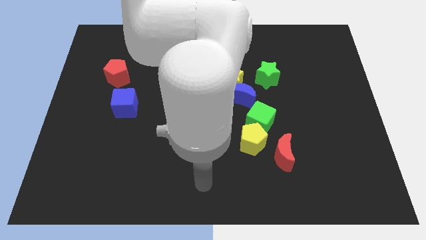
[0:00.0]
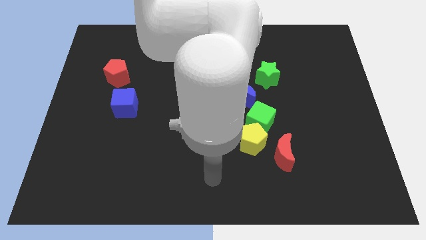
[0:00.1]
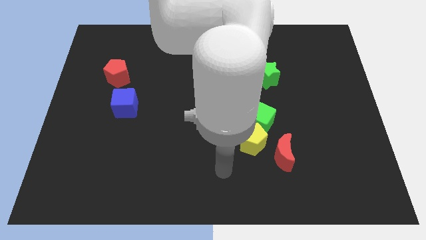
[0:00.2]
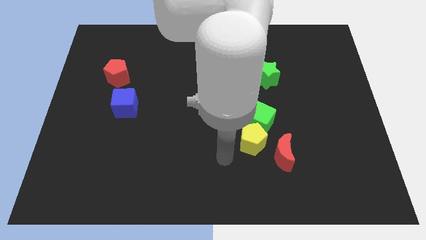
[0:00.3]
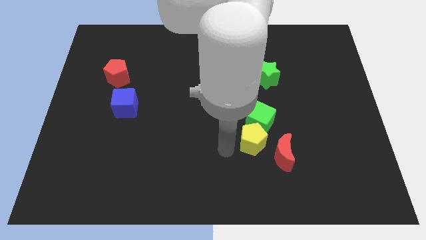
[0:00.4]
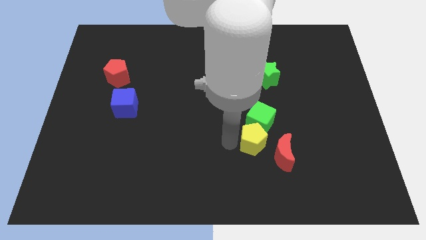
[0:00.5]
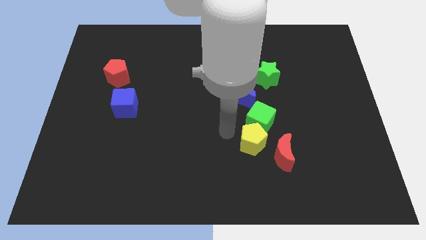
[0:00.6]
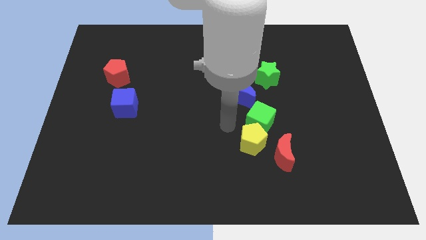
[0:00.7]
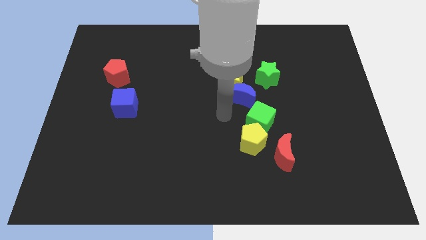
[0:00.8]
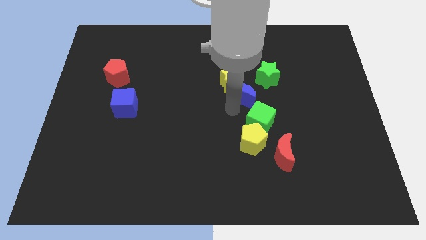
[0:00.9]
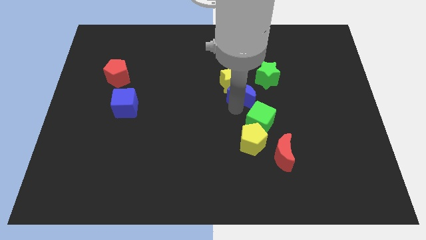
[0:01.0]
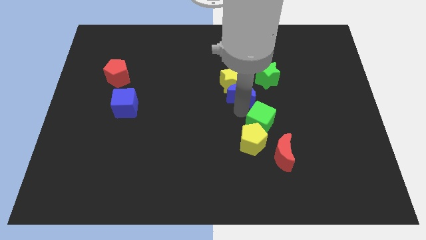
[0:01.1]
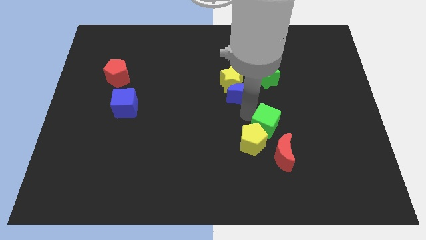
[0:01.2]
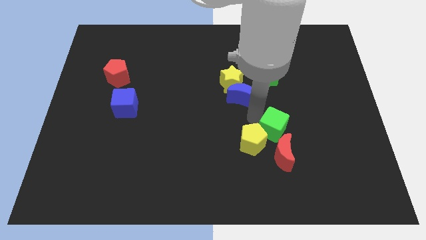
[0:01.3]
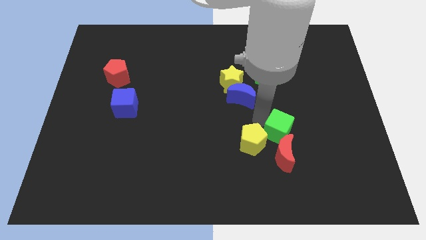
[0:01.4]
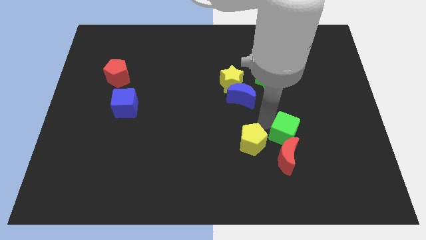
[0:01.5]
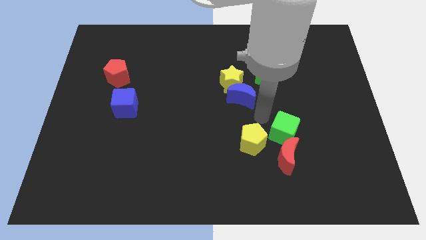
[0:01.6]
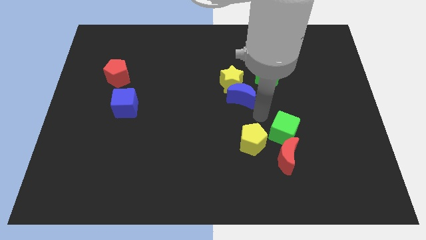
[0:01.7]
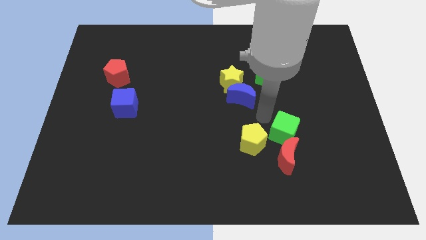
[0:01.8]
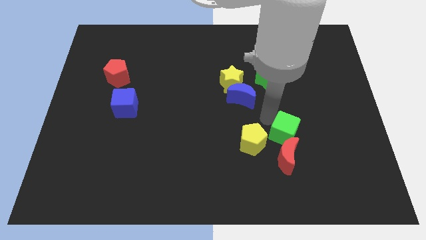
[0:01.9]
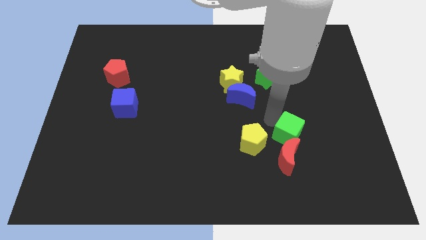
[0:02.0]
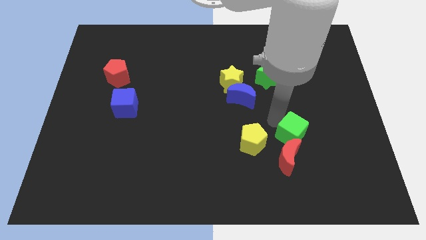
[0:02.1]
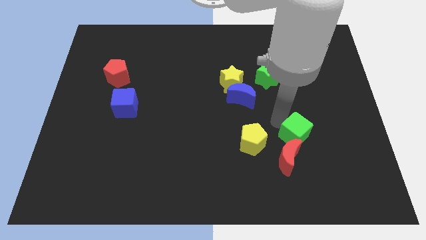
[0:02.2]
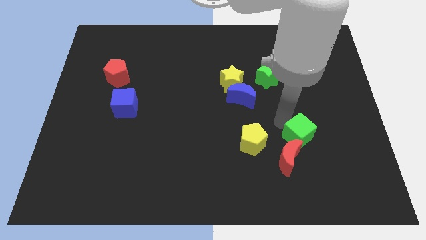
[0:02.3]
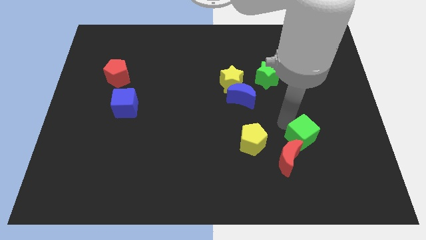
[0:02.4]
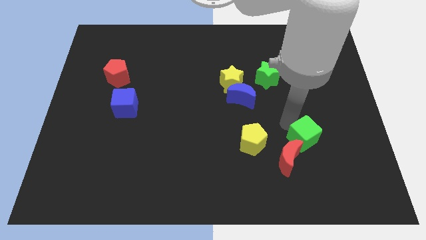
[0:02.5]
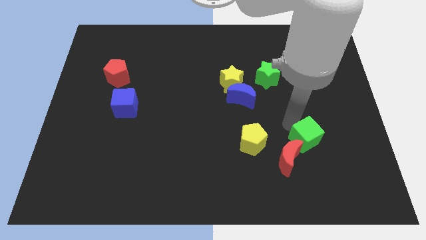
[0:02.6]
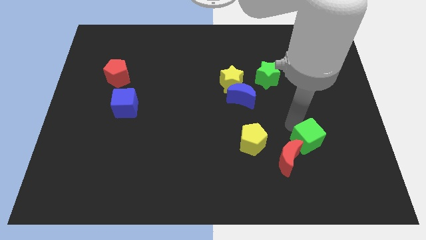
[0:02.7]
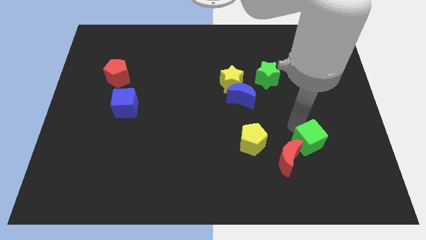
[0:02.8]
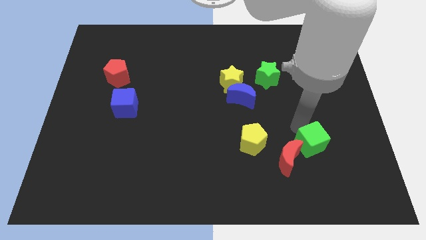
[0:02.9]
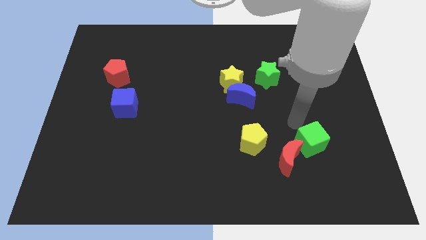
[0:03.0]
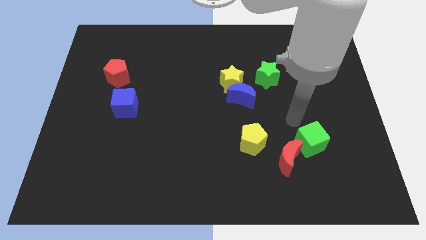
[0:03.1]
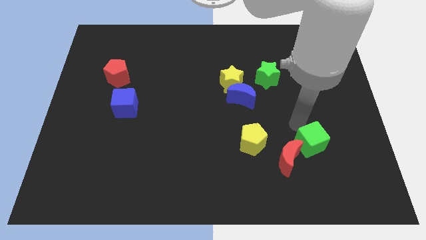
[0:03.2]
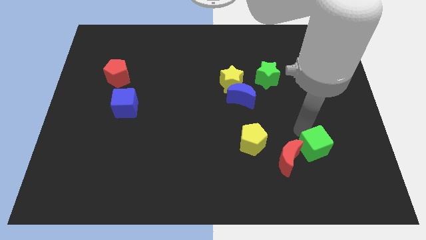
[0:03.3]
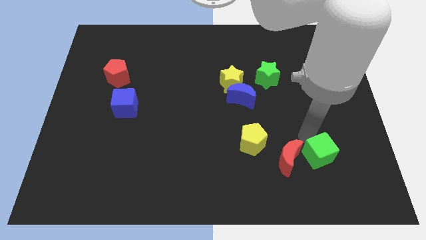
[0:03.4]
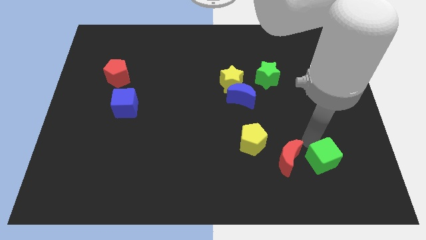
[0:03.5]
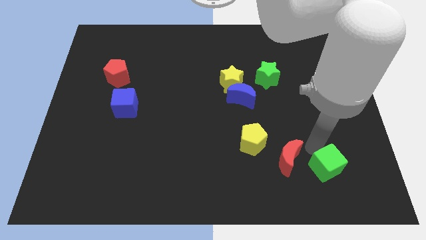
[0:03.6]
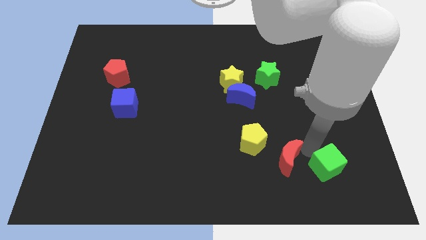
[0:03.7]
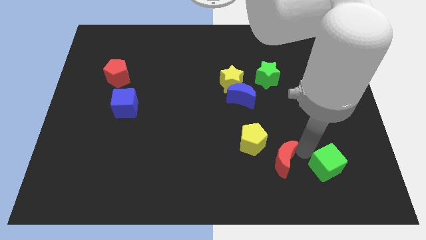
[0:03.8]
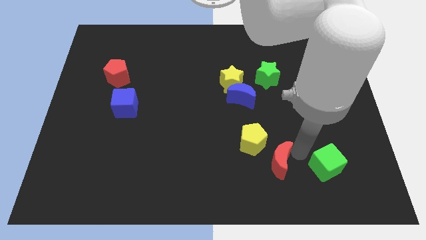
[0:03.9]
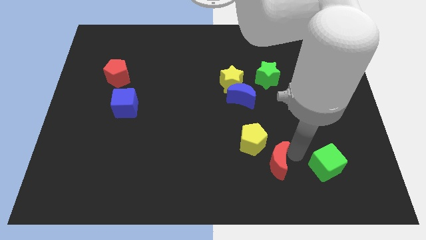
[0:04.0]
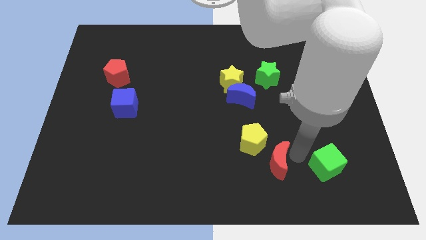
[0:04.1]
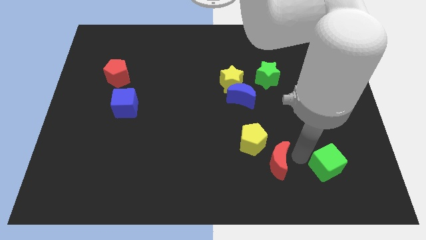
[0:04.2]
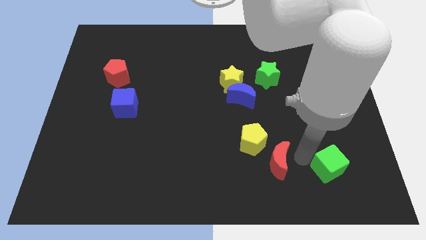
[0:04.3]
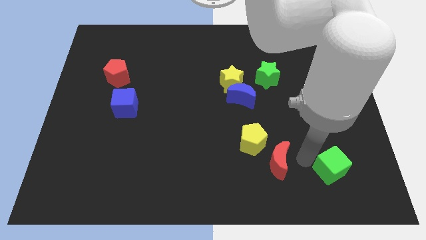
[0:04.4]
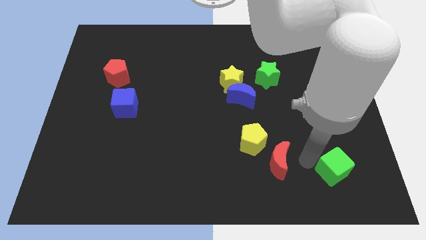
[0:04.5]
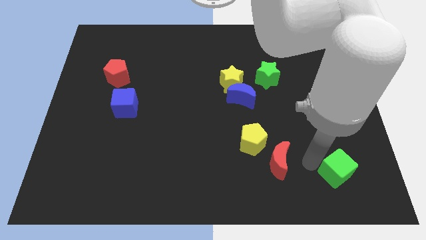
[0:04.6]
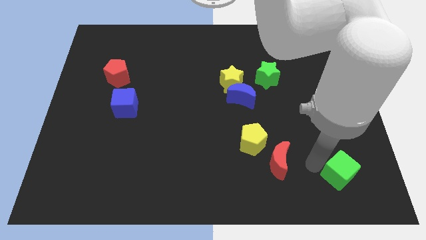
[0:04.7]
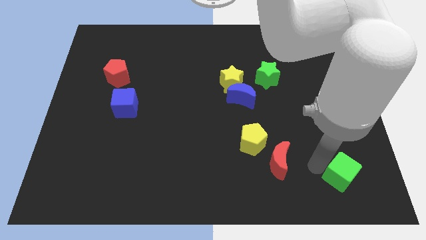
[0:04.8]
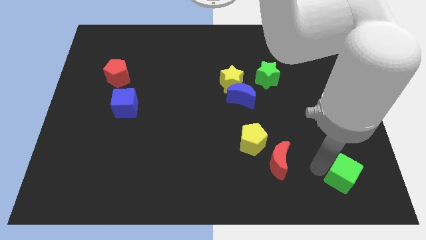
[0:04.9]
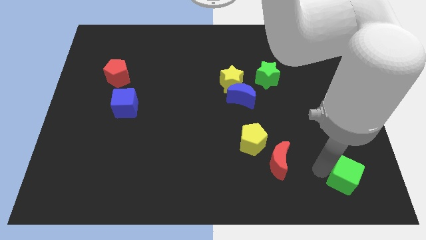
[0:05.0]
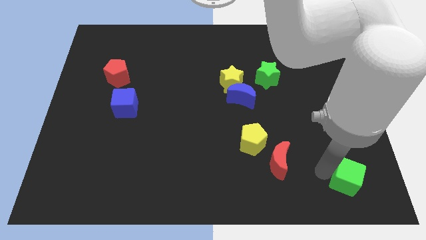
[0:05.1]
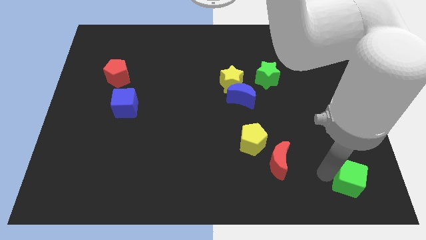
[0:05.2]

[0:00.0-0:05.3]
put the green cube to the lower right corner
